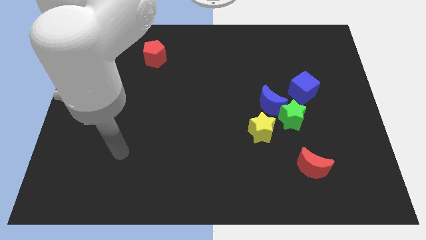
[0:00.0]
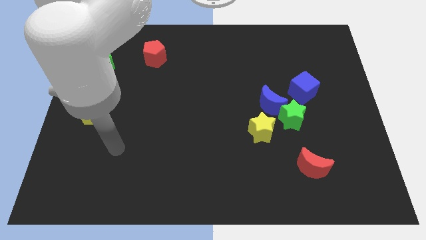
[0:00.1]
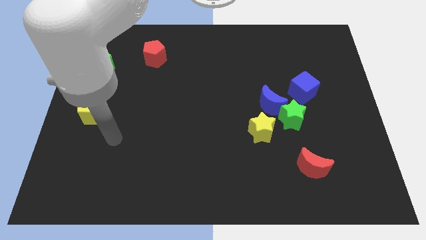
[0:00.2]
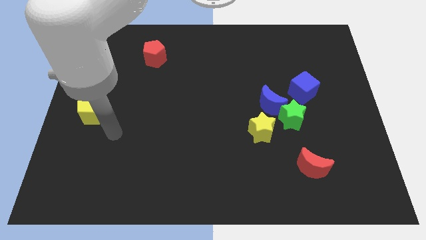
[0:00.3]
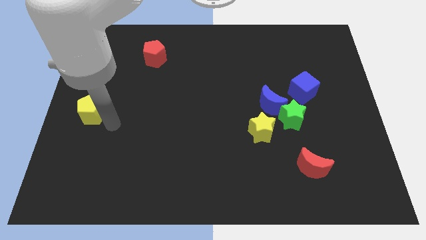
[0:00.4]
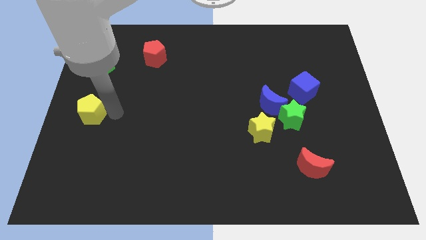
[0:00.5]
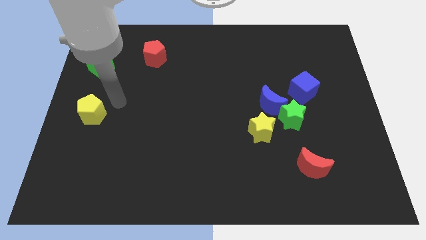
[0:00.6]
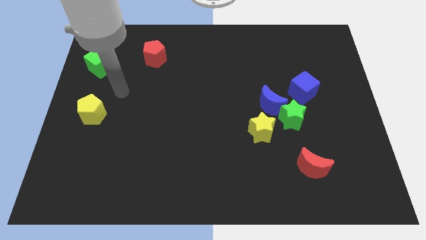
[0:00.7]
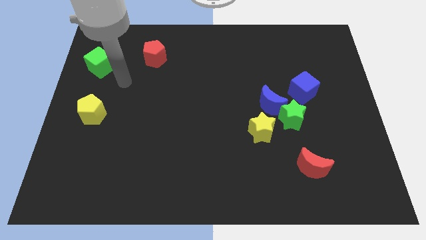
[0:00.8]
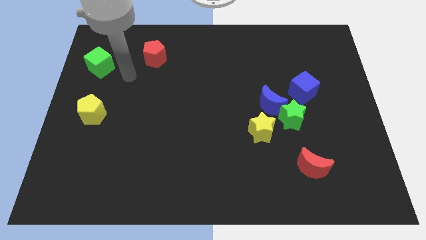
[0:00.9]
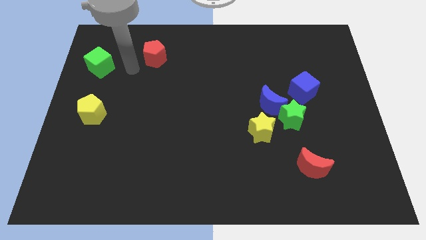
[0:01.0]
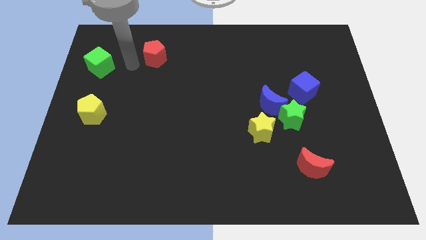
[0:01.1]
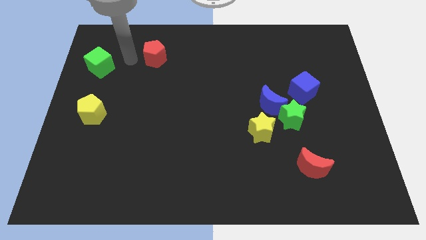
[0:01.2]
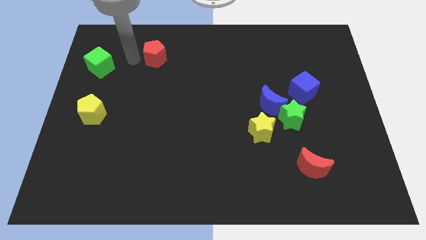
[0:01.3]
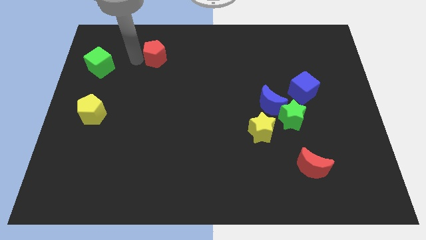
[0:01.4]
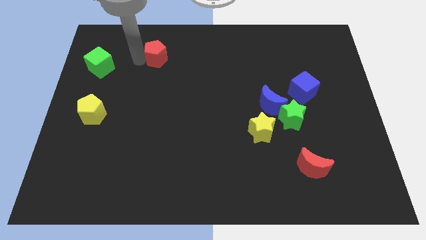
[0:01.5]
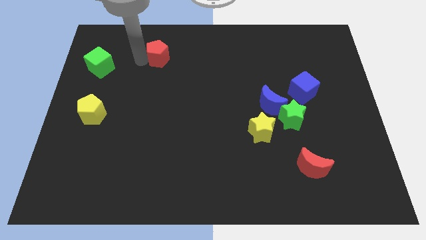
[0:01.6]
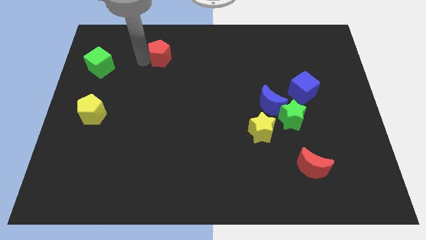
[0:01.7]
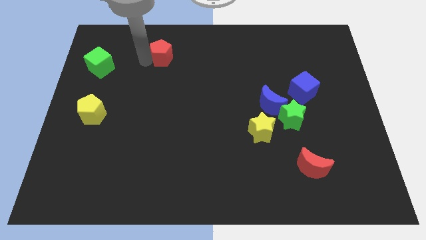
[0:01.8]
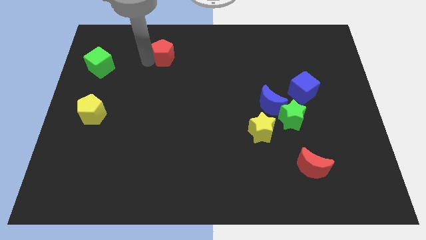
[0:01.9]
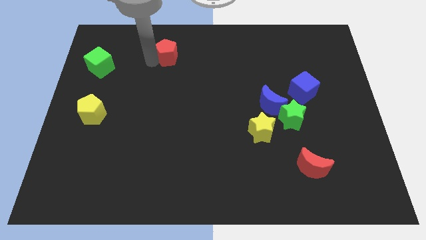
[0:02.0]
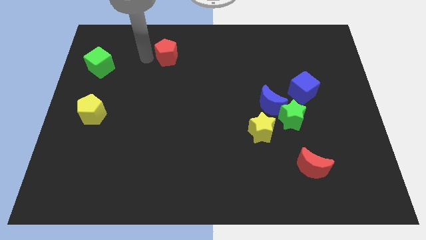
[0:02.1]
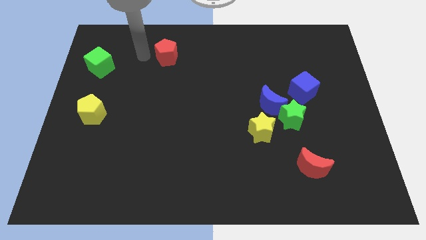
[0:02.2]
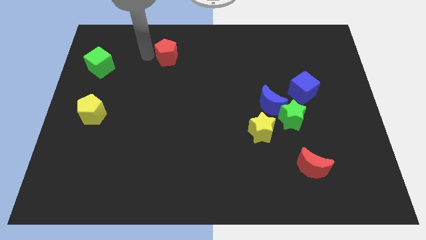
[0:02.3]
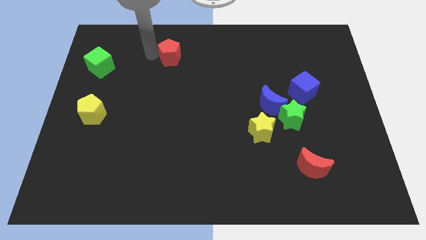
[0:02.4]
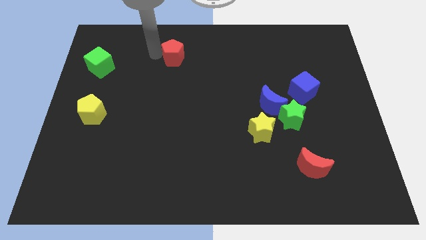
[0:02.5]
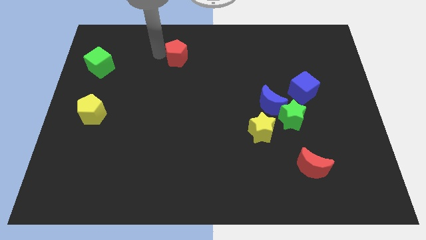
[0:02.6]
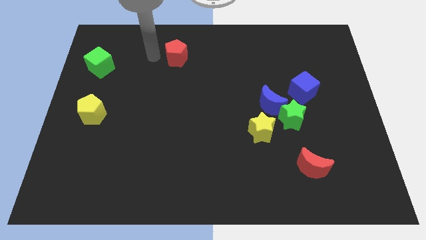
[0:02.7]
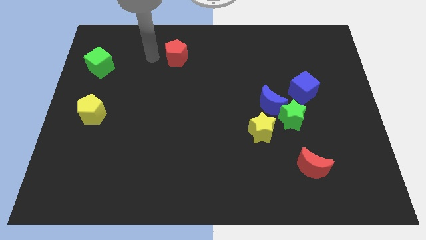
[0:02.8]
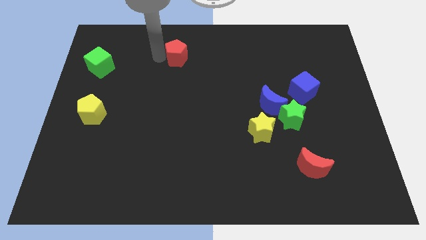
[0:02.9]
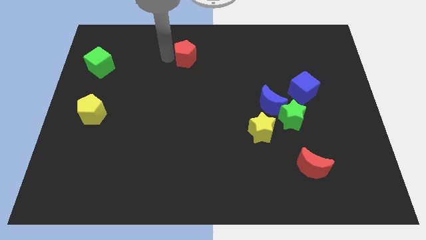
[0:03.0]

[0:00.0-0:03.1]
slightly slide the red pentagon to the right

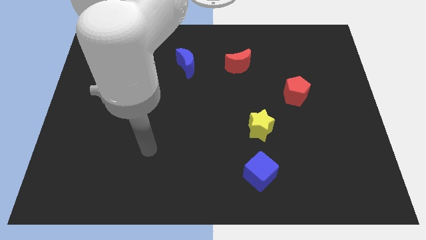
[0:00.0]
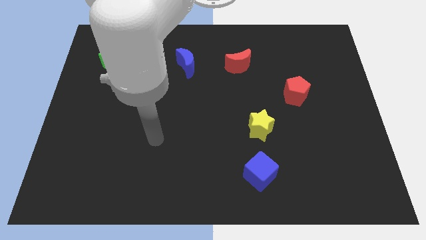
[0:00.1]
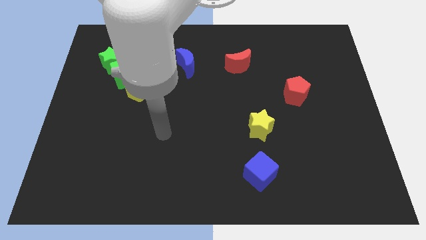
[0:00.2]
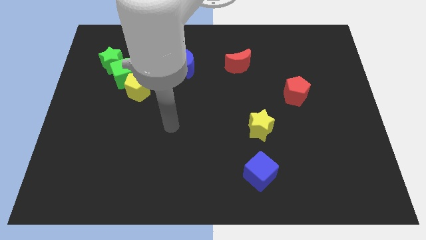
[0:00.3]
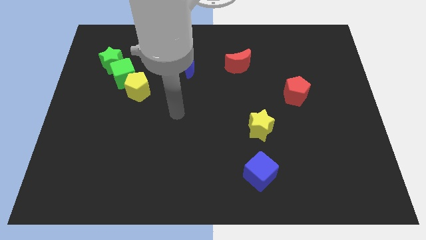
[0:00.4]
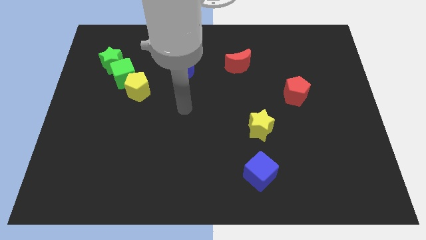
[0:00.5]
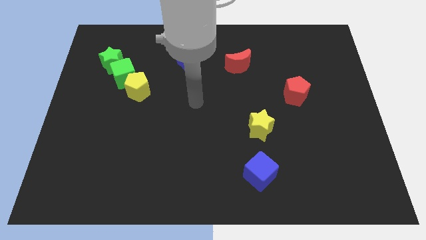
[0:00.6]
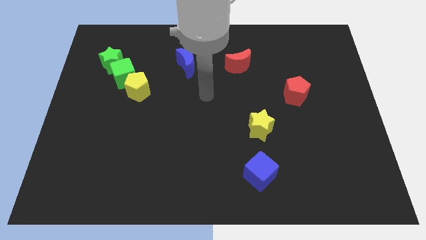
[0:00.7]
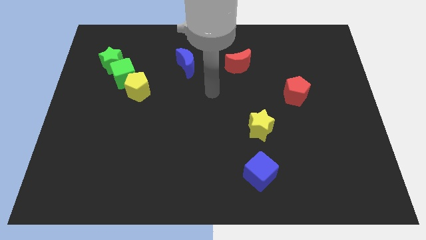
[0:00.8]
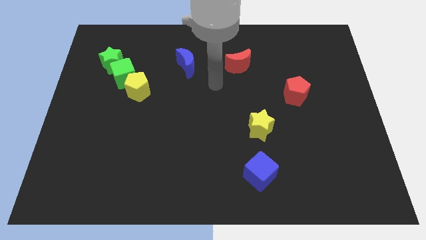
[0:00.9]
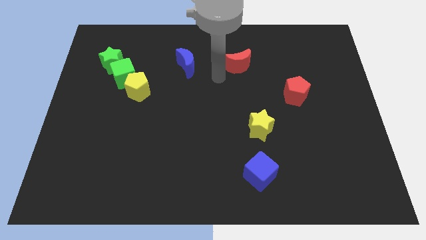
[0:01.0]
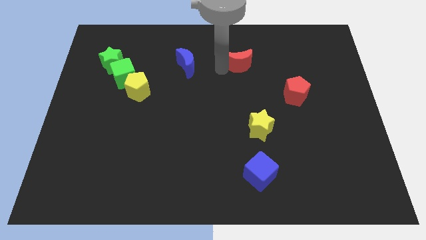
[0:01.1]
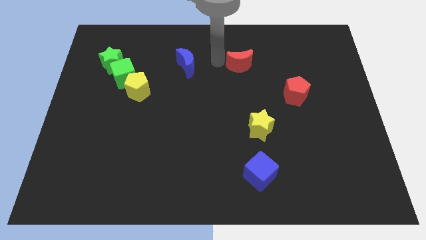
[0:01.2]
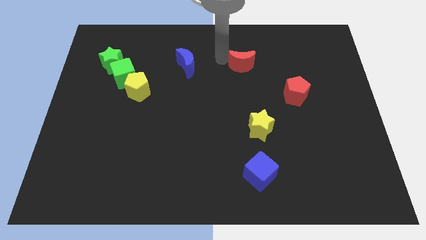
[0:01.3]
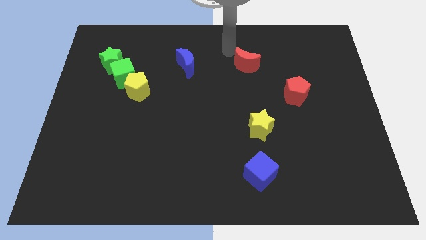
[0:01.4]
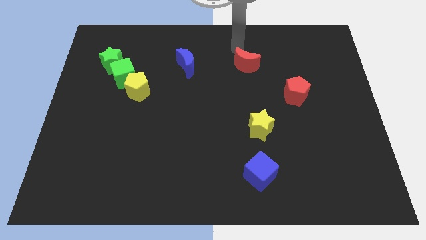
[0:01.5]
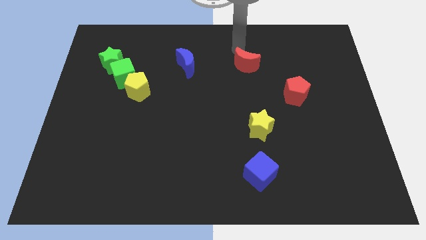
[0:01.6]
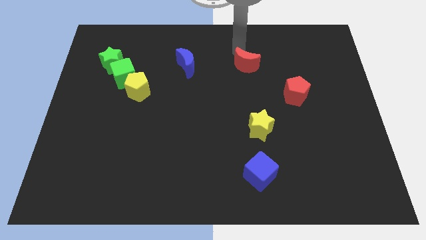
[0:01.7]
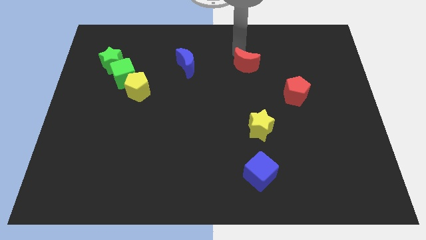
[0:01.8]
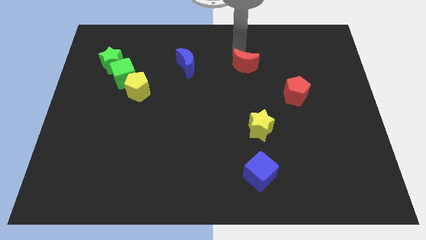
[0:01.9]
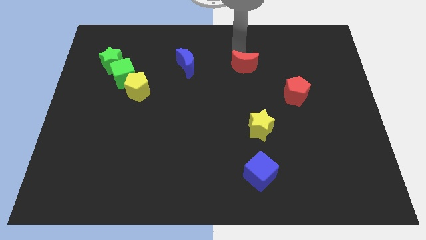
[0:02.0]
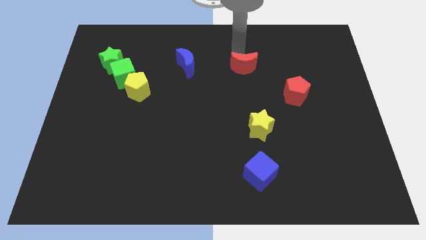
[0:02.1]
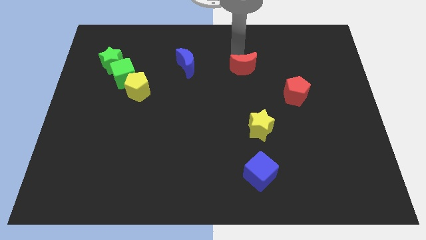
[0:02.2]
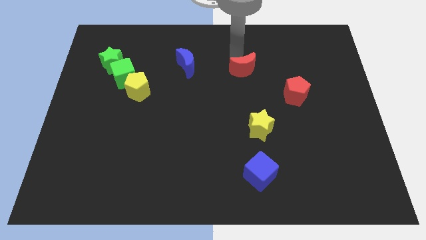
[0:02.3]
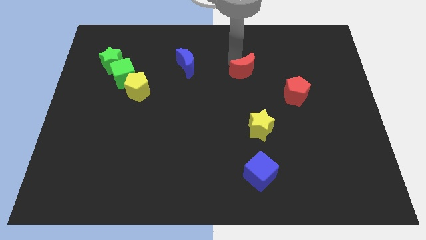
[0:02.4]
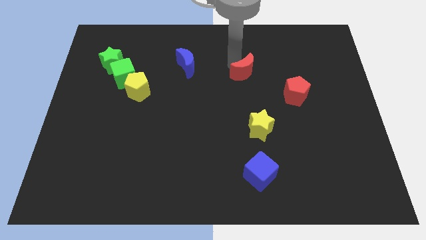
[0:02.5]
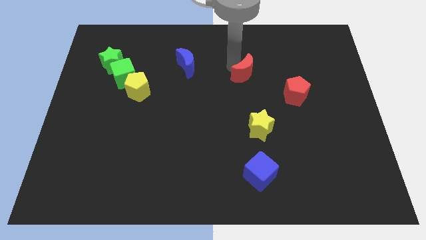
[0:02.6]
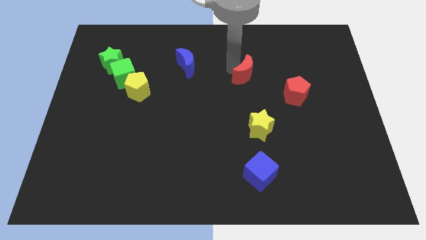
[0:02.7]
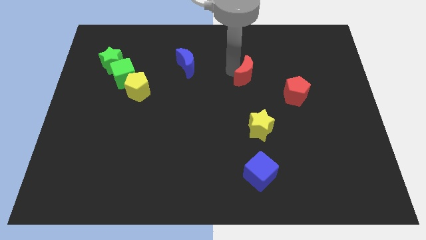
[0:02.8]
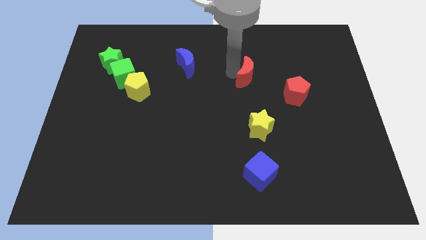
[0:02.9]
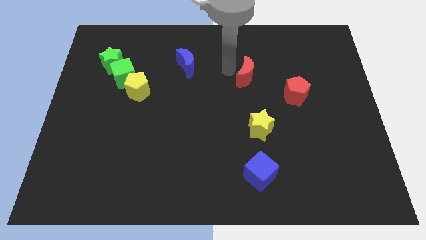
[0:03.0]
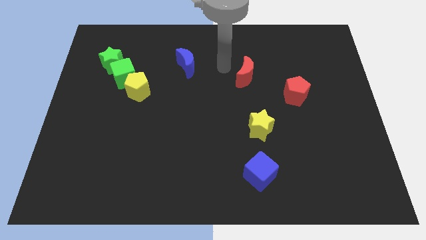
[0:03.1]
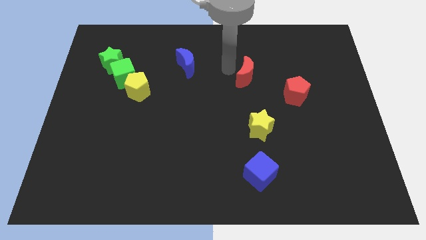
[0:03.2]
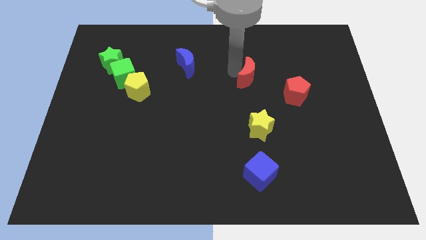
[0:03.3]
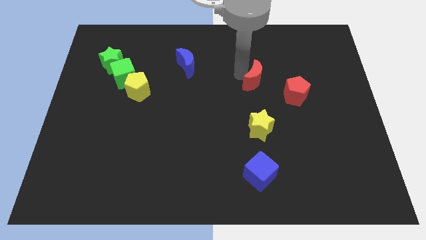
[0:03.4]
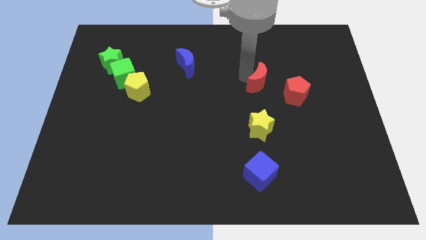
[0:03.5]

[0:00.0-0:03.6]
push the red moon diagonally down and right somewhat

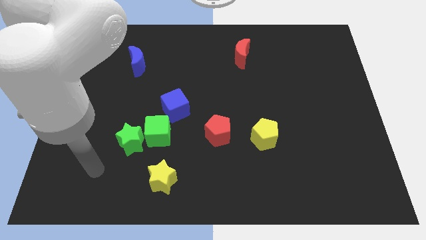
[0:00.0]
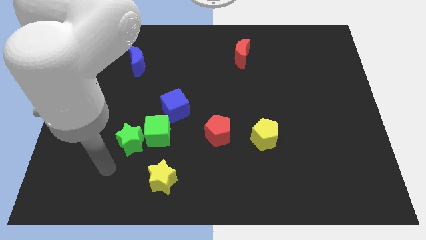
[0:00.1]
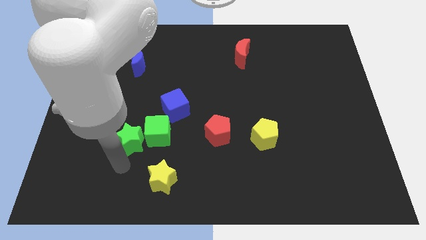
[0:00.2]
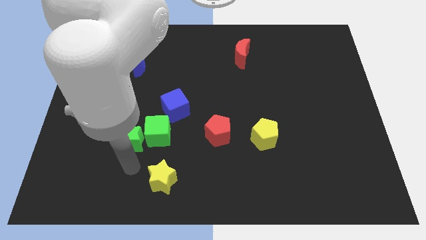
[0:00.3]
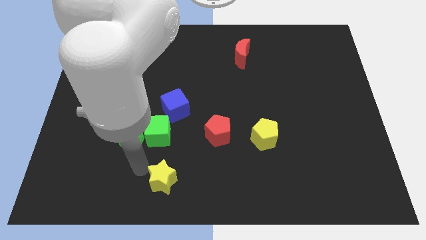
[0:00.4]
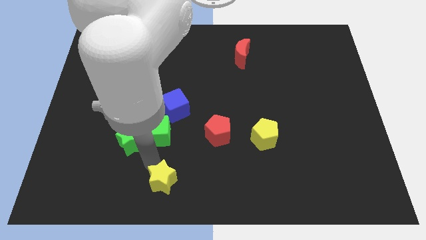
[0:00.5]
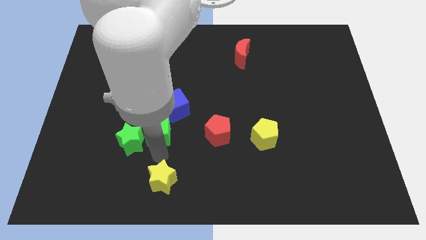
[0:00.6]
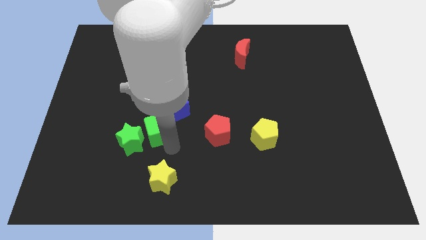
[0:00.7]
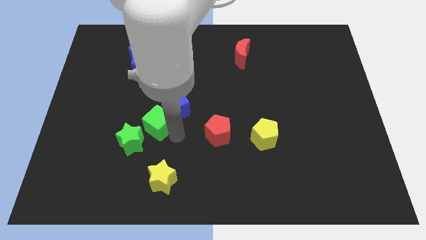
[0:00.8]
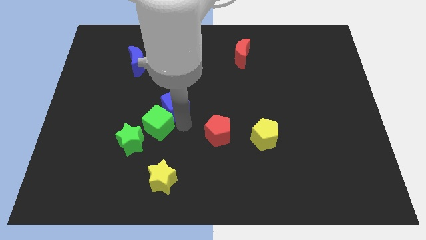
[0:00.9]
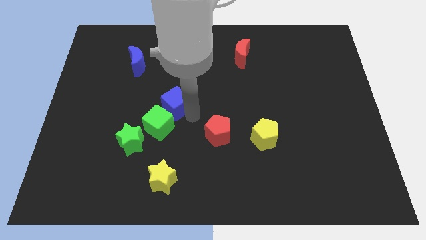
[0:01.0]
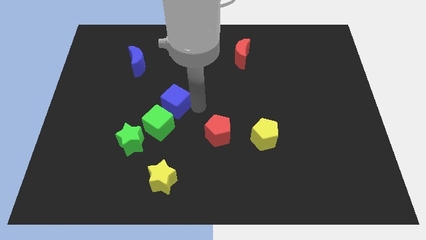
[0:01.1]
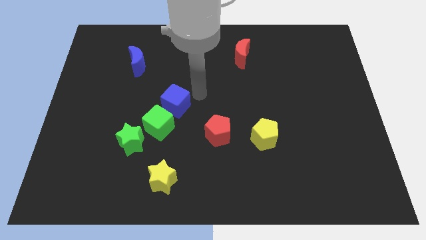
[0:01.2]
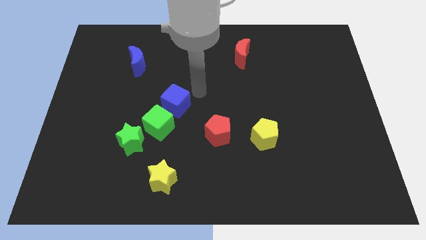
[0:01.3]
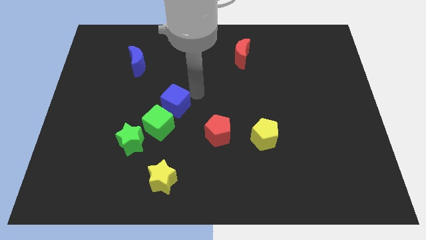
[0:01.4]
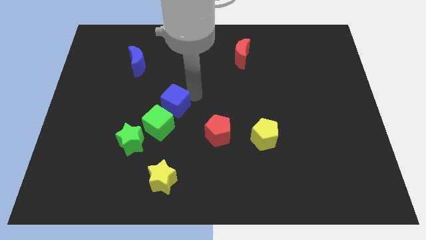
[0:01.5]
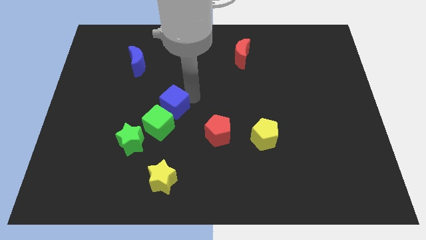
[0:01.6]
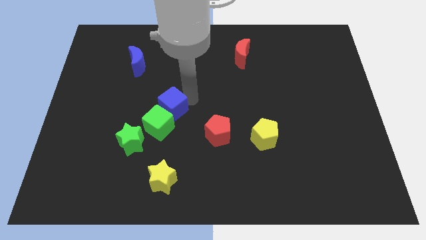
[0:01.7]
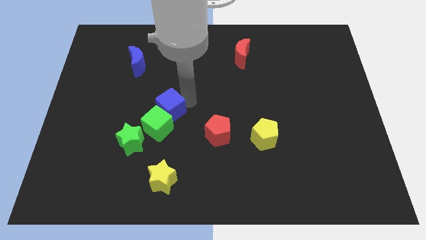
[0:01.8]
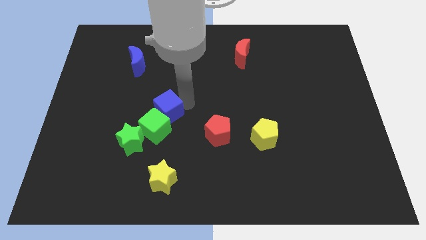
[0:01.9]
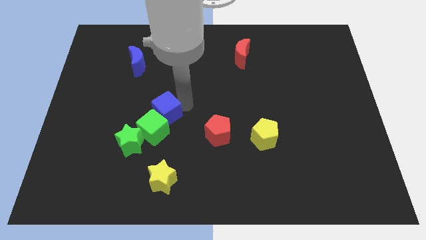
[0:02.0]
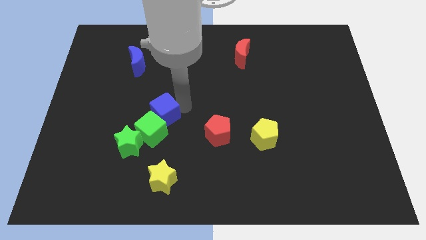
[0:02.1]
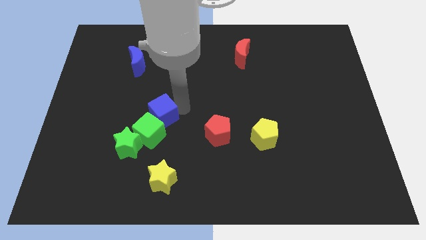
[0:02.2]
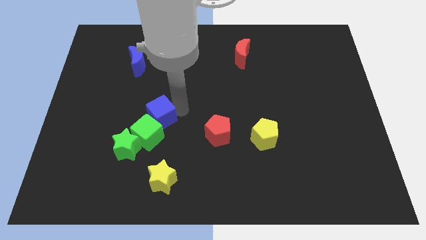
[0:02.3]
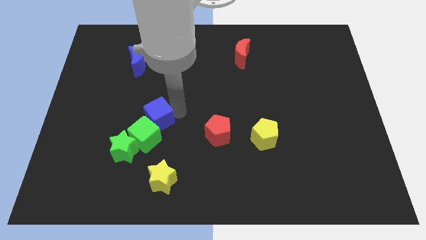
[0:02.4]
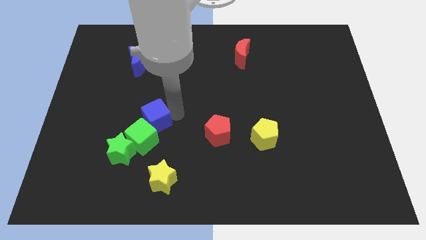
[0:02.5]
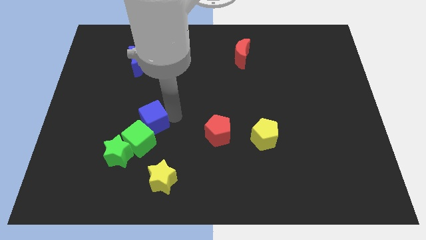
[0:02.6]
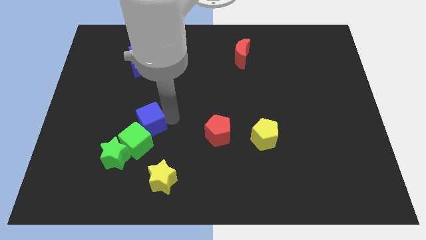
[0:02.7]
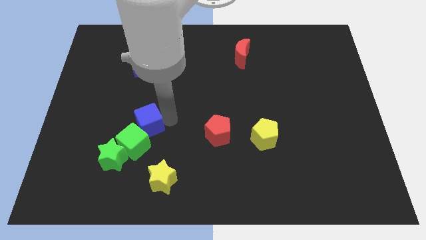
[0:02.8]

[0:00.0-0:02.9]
slightly push the blue cube diagonally downwards and left
